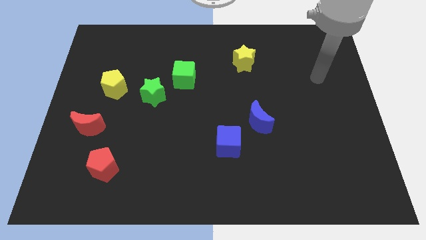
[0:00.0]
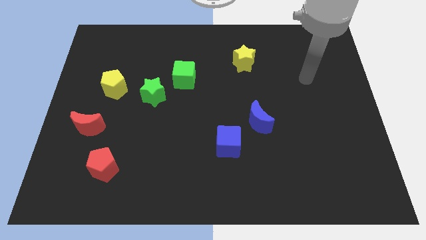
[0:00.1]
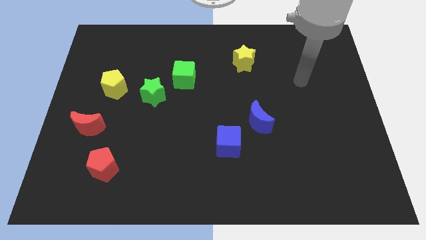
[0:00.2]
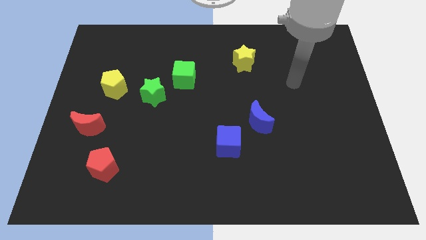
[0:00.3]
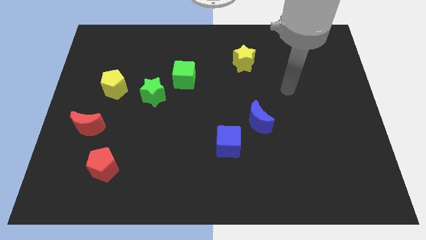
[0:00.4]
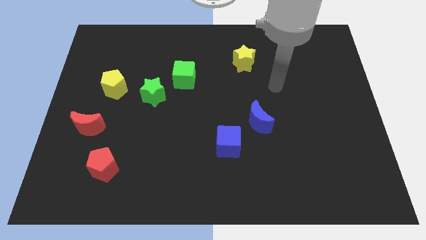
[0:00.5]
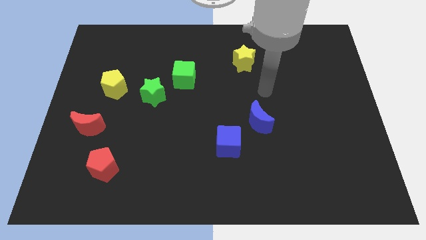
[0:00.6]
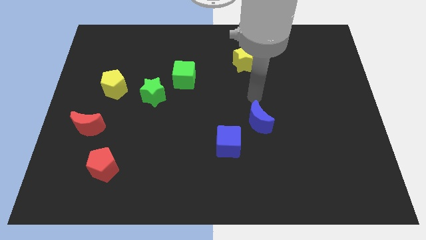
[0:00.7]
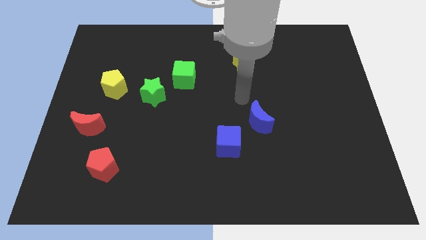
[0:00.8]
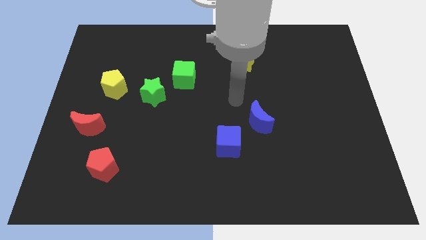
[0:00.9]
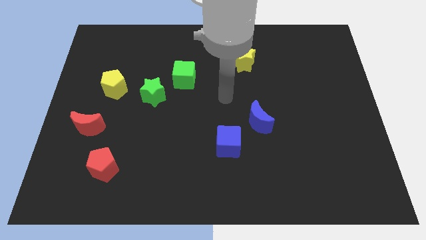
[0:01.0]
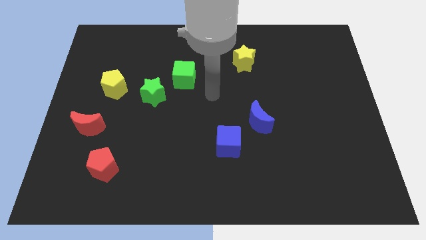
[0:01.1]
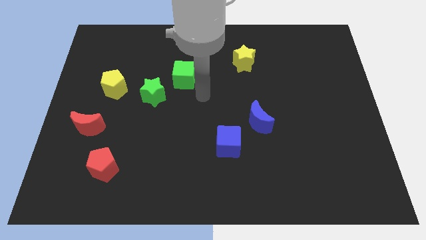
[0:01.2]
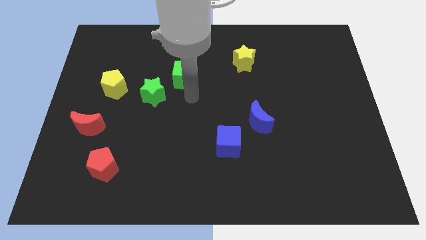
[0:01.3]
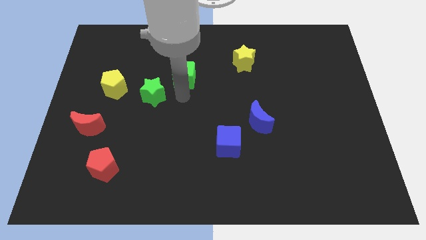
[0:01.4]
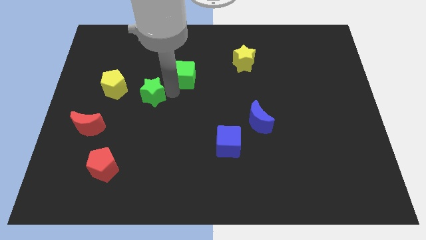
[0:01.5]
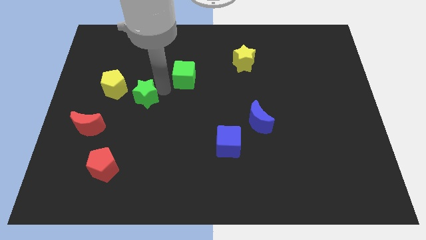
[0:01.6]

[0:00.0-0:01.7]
pull the green cube apart from the green star

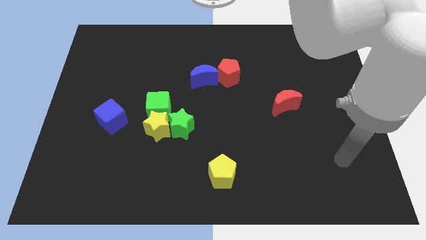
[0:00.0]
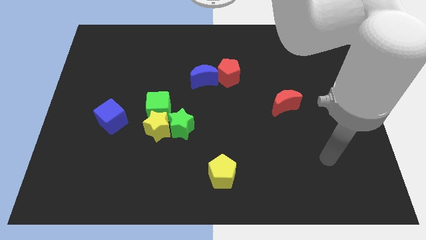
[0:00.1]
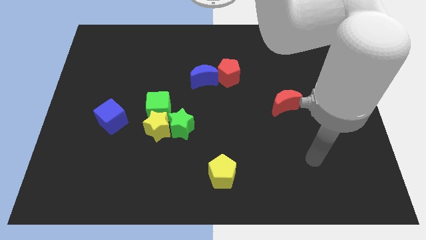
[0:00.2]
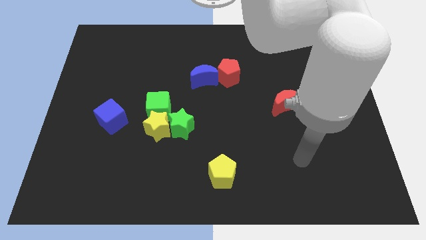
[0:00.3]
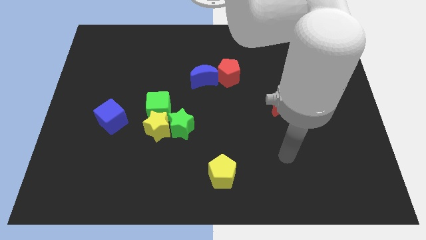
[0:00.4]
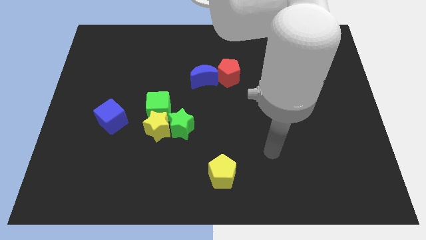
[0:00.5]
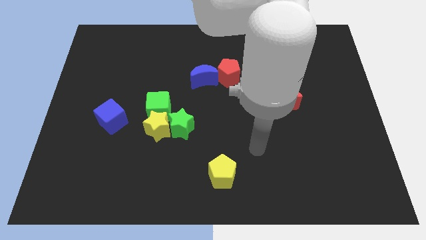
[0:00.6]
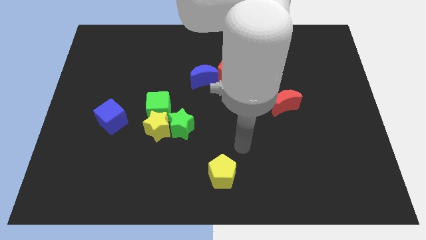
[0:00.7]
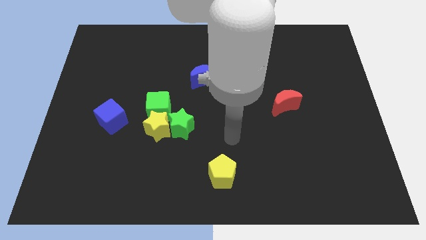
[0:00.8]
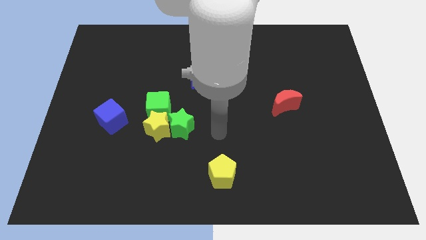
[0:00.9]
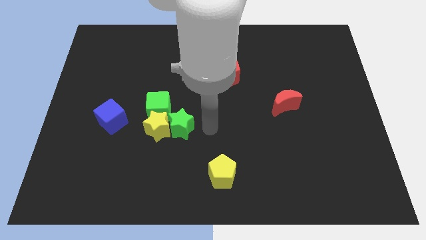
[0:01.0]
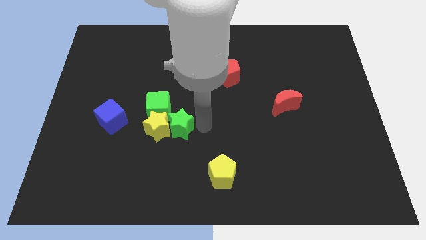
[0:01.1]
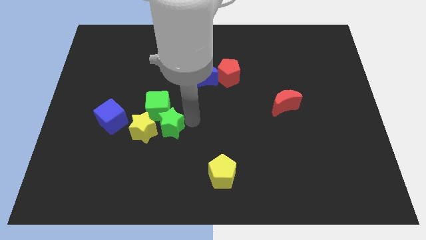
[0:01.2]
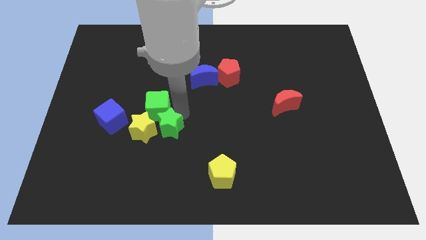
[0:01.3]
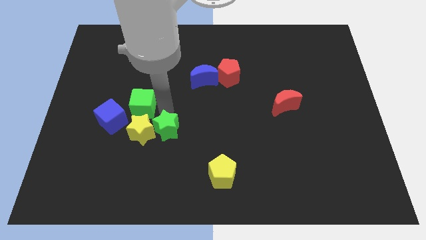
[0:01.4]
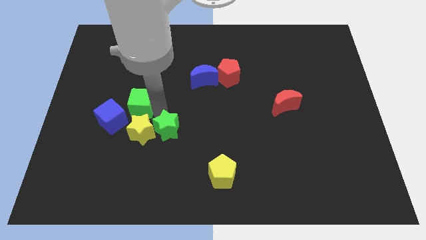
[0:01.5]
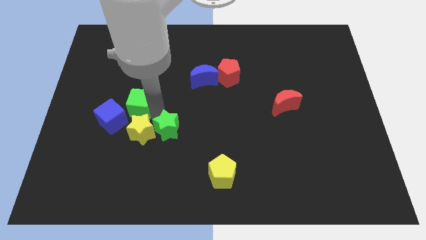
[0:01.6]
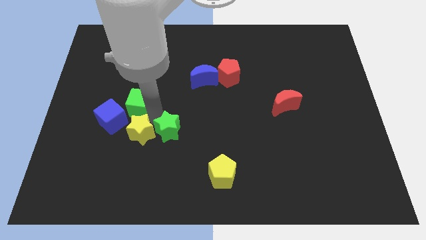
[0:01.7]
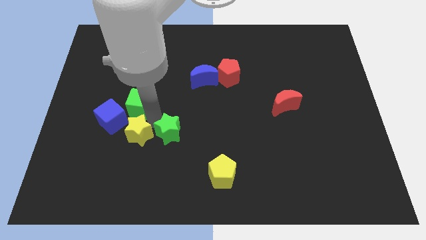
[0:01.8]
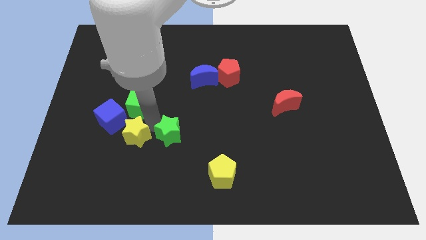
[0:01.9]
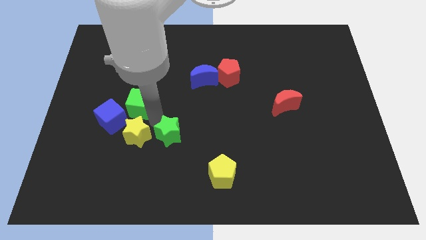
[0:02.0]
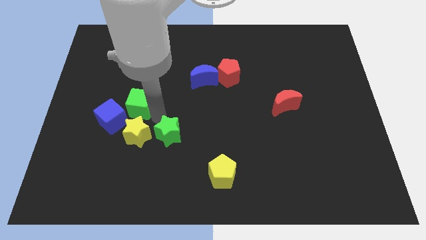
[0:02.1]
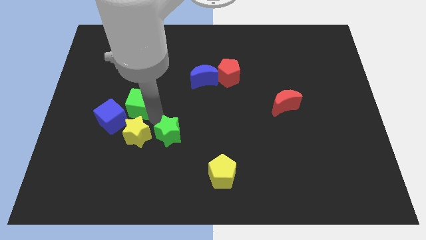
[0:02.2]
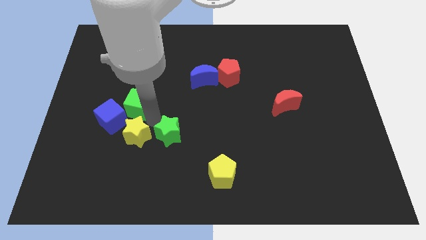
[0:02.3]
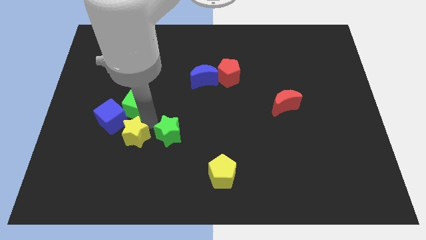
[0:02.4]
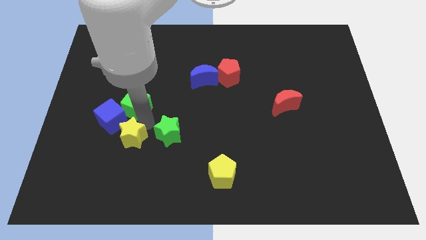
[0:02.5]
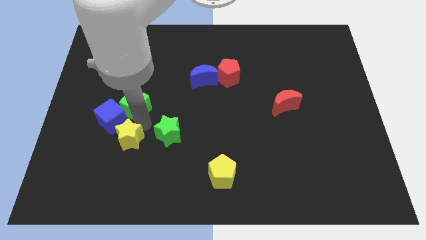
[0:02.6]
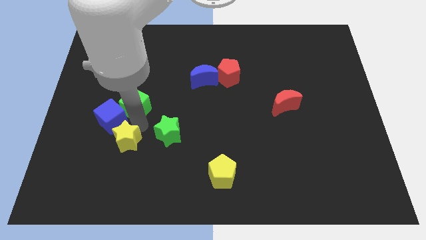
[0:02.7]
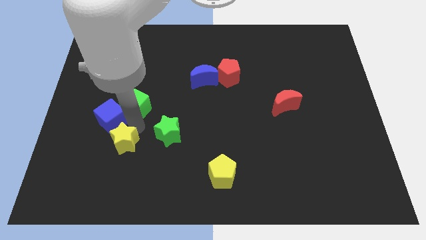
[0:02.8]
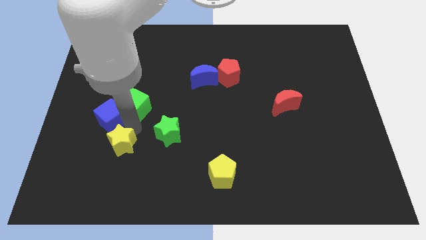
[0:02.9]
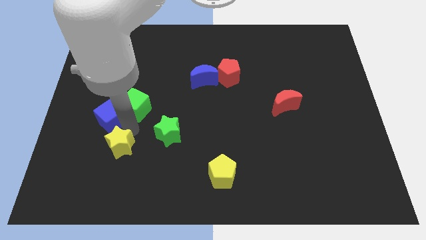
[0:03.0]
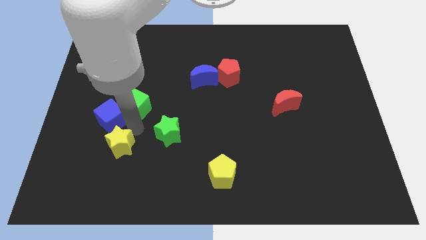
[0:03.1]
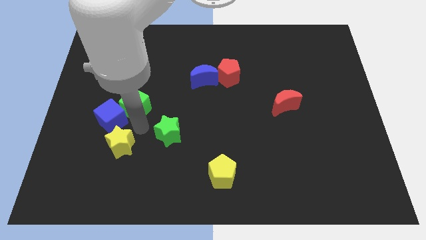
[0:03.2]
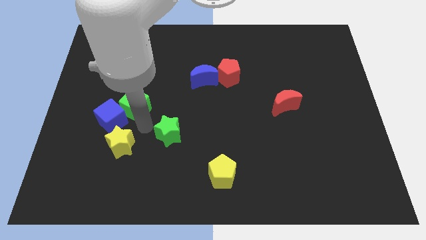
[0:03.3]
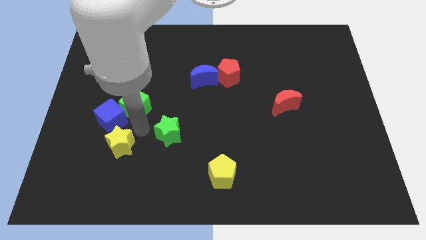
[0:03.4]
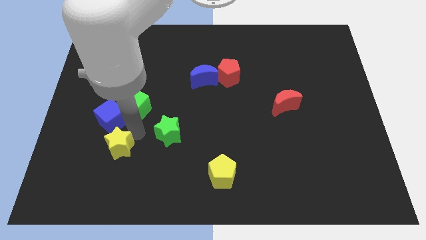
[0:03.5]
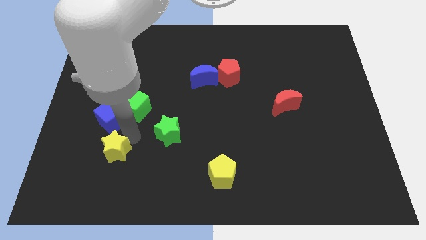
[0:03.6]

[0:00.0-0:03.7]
pull the yellow star apart from the green star and green cube

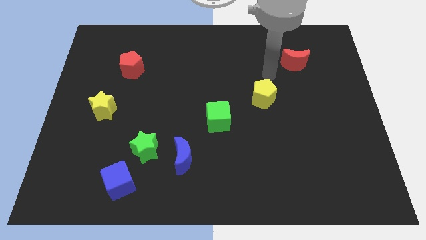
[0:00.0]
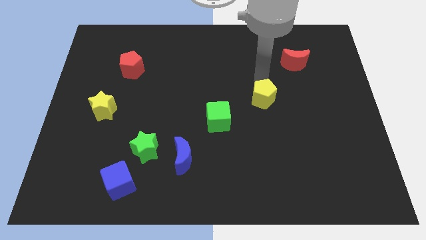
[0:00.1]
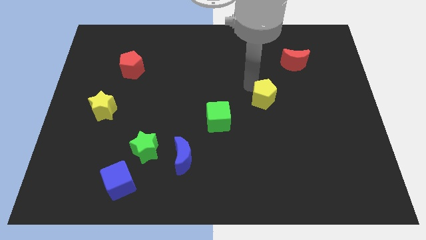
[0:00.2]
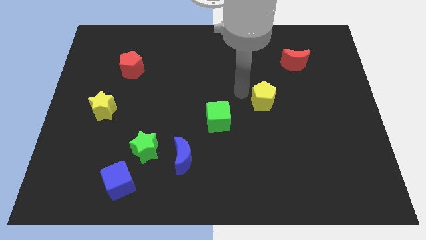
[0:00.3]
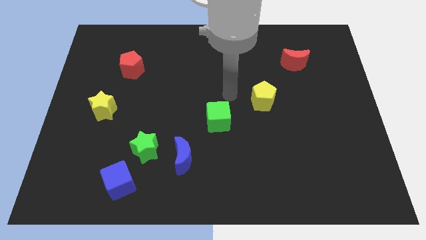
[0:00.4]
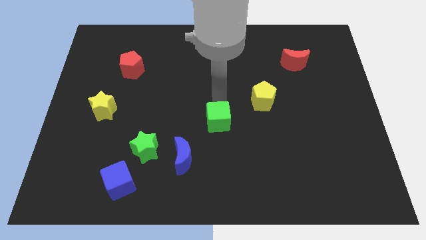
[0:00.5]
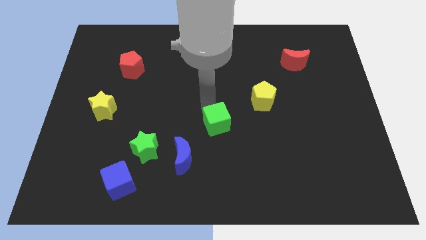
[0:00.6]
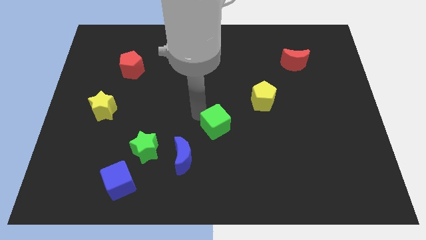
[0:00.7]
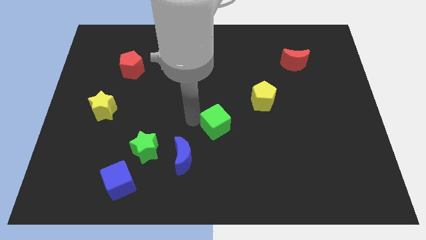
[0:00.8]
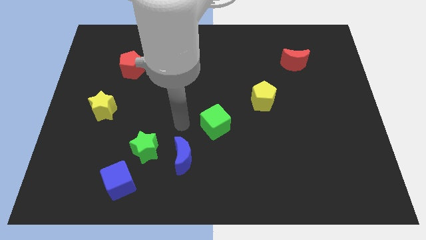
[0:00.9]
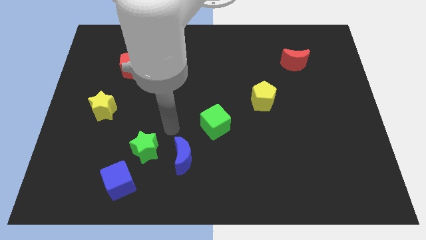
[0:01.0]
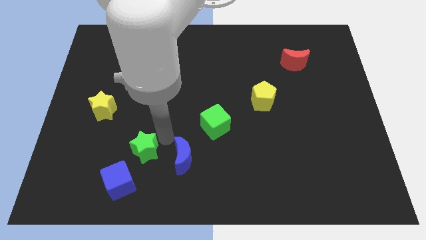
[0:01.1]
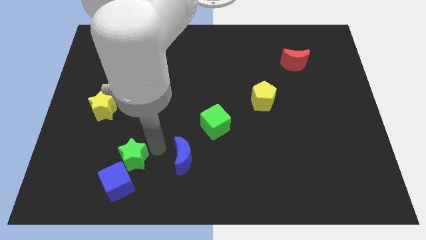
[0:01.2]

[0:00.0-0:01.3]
separate the blue moon from the green star

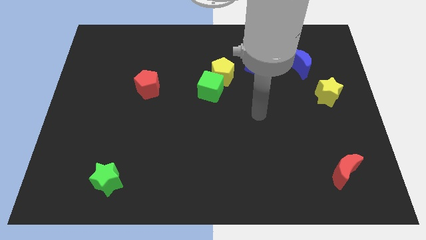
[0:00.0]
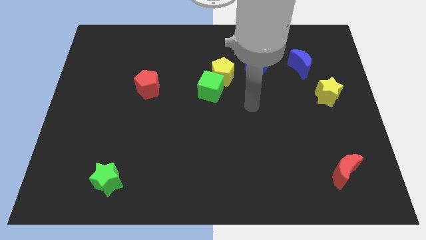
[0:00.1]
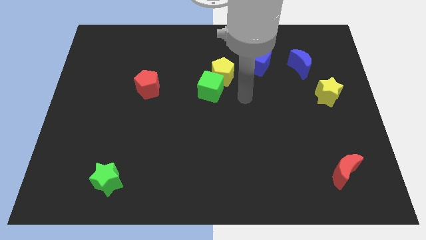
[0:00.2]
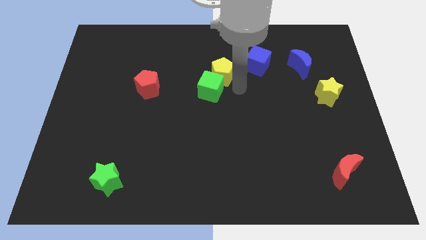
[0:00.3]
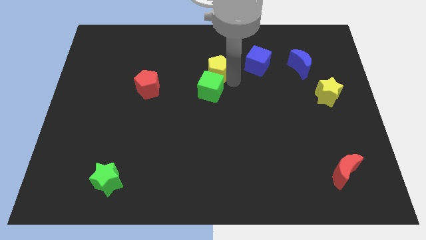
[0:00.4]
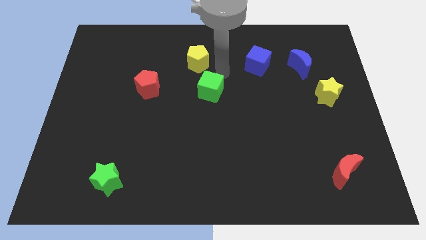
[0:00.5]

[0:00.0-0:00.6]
move the green cube away from the yellow pentagon

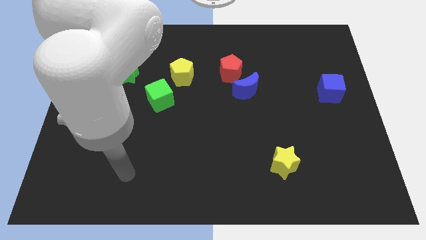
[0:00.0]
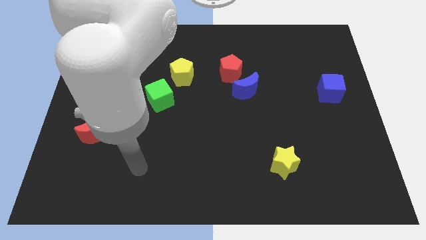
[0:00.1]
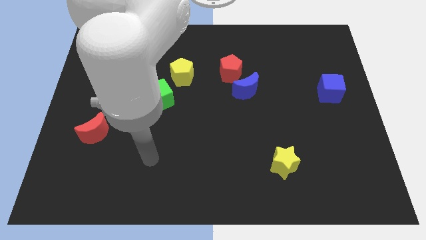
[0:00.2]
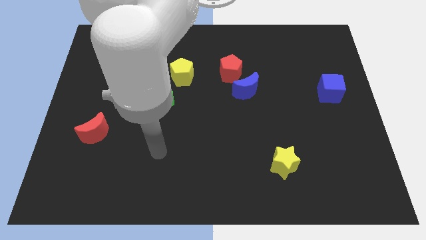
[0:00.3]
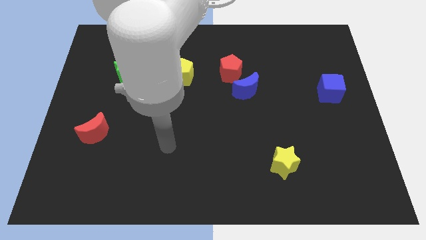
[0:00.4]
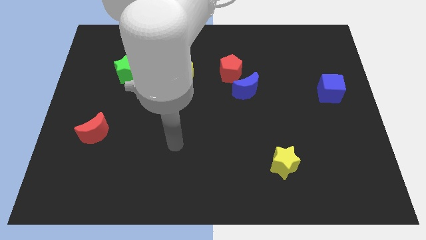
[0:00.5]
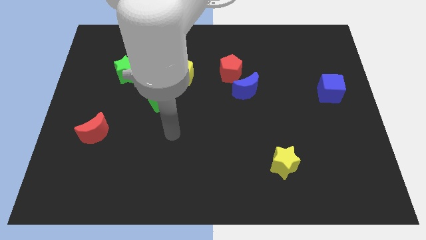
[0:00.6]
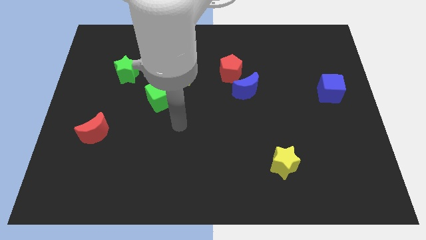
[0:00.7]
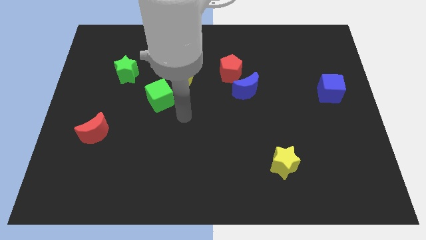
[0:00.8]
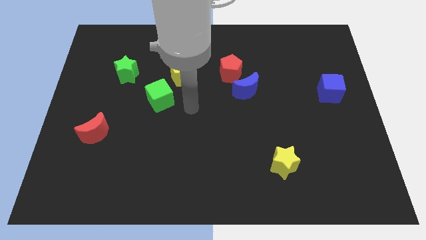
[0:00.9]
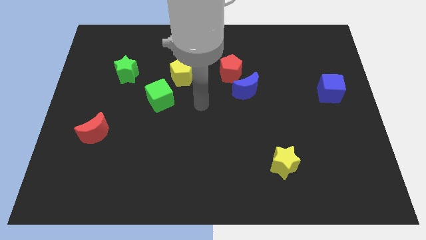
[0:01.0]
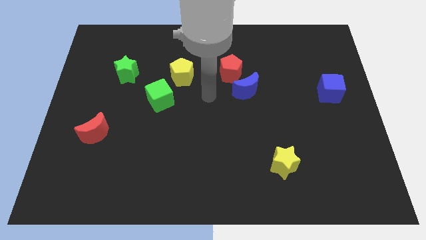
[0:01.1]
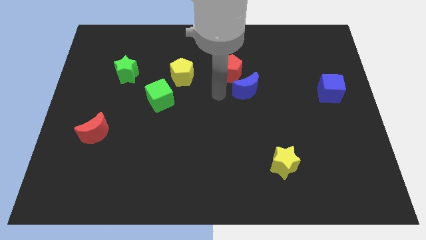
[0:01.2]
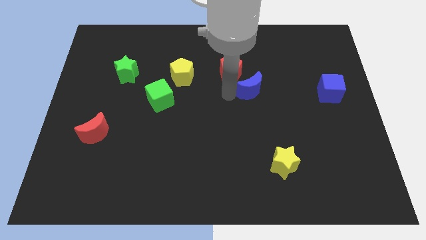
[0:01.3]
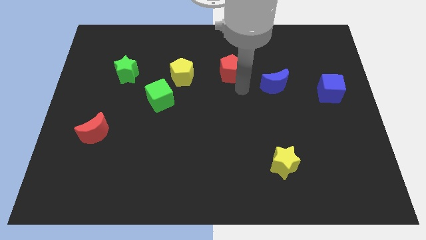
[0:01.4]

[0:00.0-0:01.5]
move the red pentagon away from the blue moon

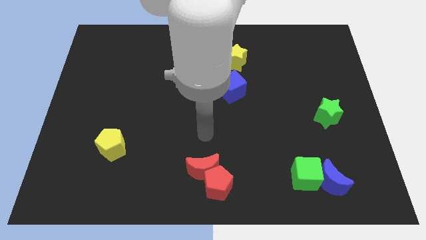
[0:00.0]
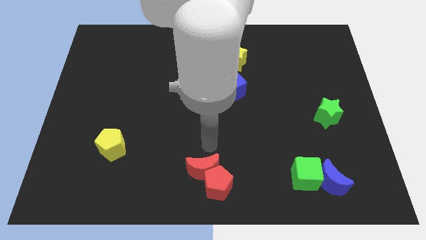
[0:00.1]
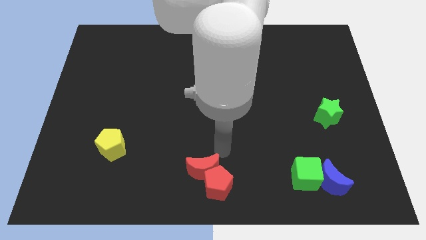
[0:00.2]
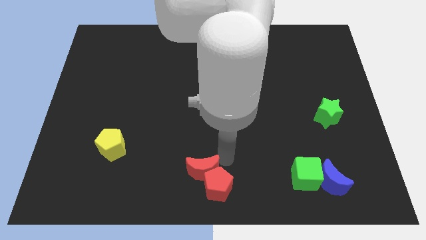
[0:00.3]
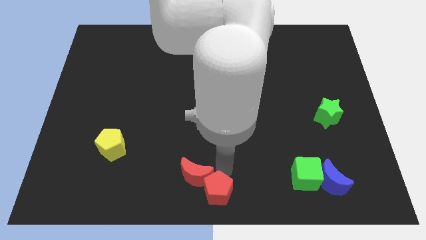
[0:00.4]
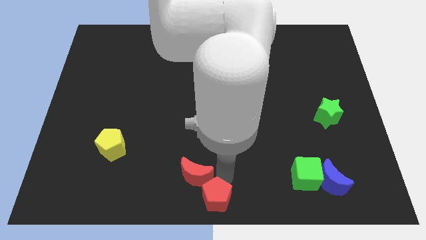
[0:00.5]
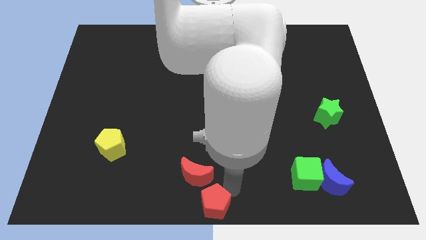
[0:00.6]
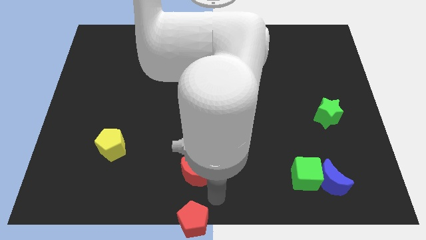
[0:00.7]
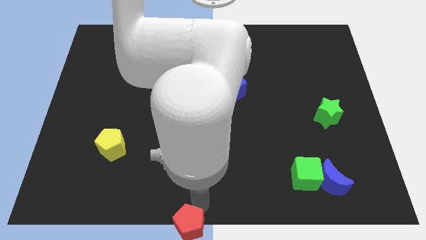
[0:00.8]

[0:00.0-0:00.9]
pull the red moon apart from the red pentagon
